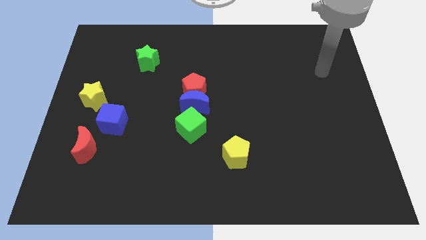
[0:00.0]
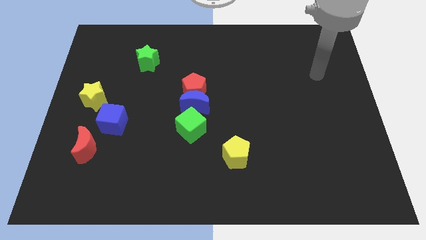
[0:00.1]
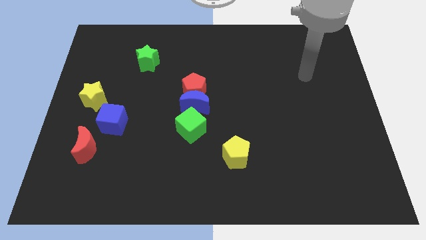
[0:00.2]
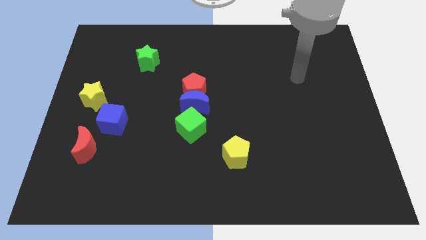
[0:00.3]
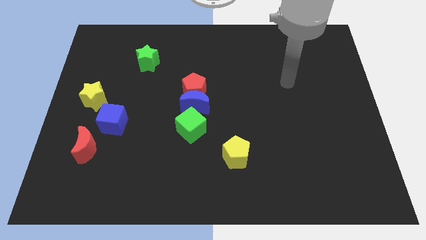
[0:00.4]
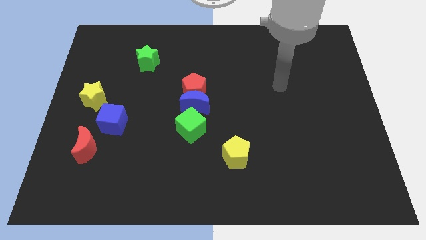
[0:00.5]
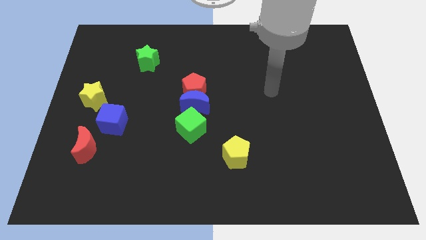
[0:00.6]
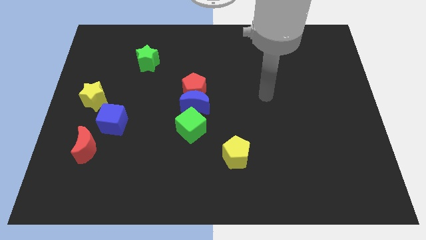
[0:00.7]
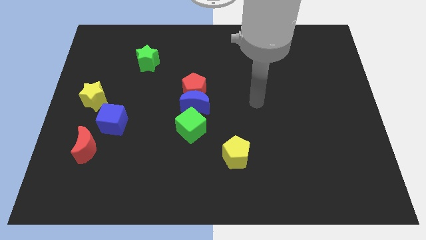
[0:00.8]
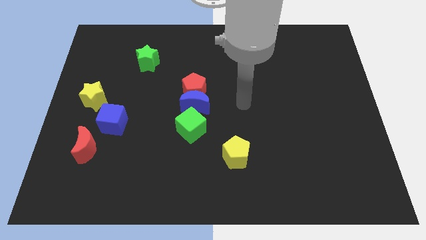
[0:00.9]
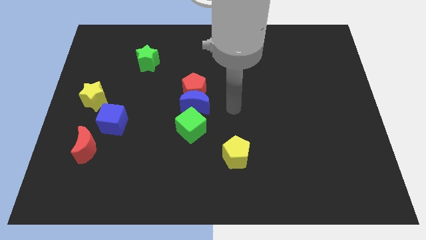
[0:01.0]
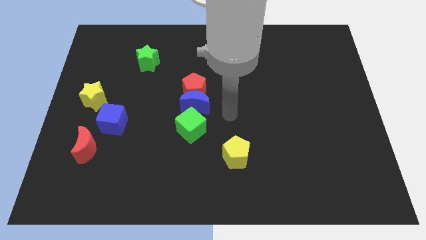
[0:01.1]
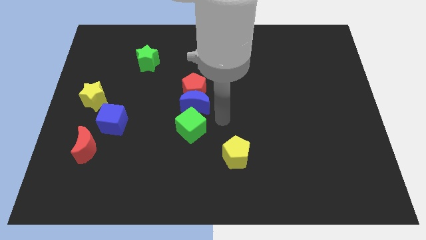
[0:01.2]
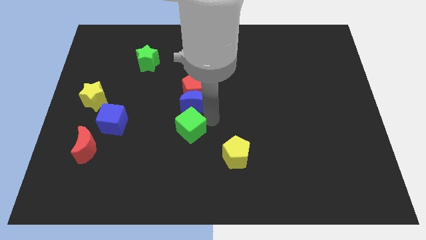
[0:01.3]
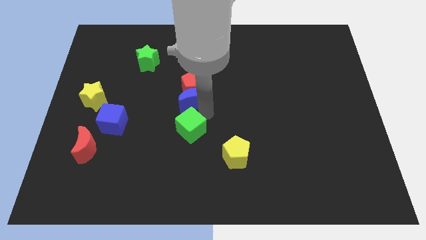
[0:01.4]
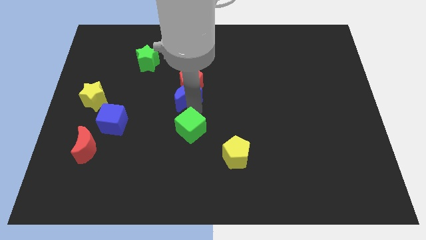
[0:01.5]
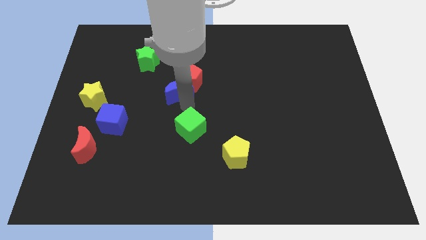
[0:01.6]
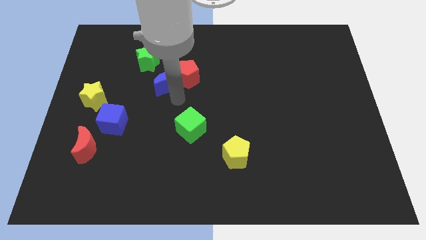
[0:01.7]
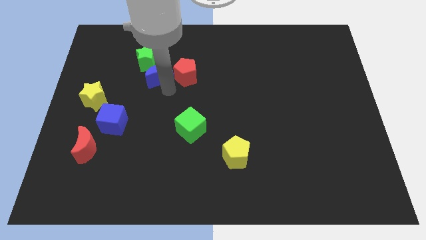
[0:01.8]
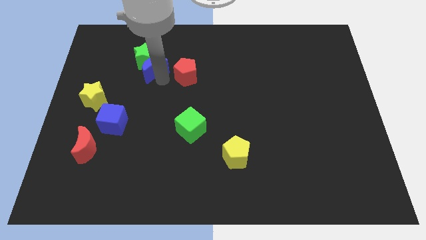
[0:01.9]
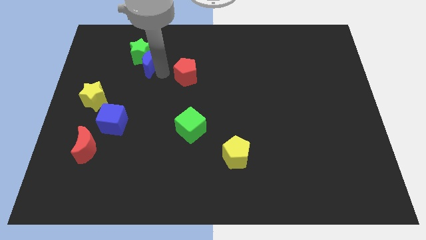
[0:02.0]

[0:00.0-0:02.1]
move the red pentagon away from the blue moon

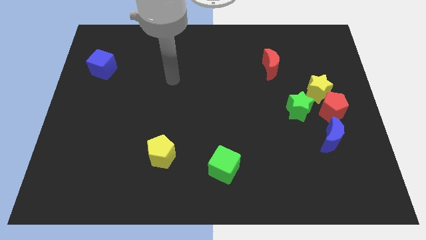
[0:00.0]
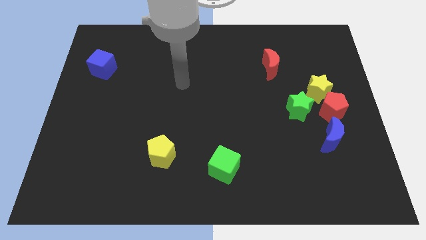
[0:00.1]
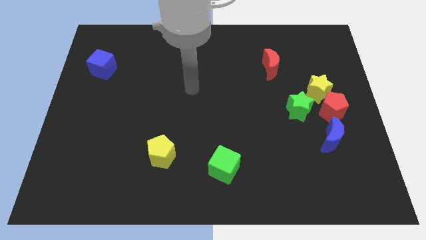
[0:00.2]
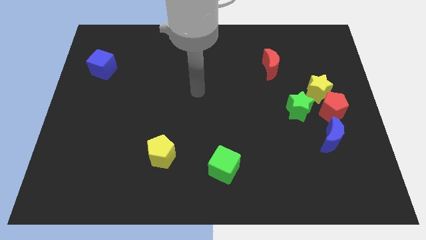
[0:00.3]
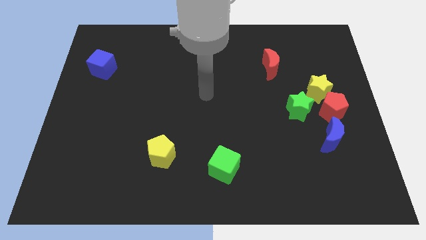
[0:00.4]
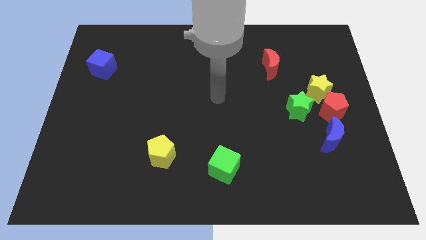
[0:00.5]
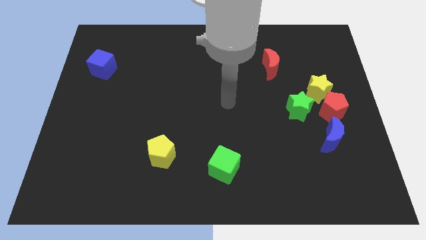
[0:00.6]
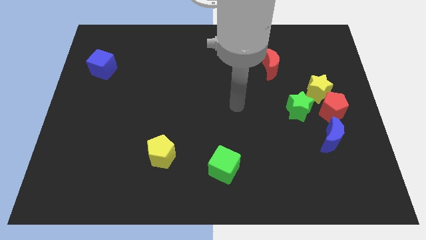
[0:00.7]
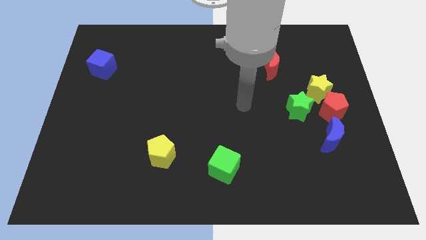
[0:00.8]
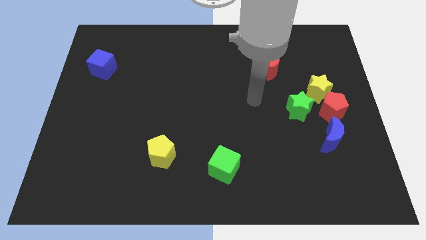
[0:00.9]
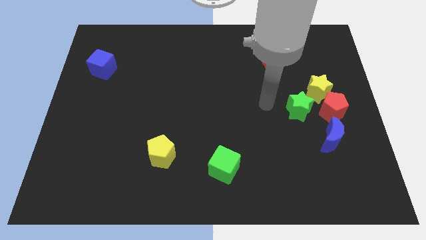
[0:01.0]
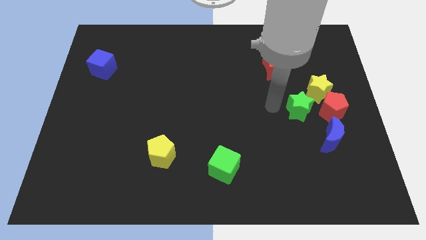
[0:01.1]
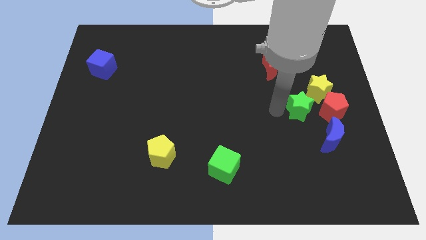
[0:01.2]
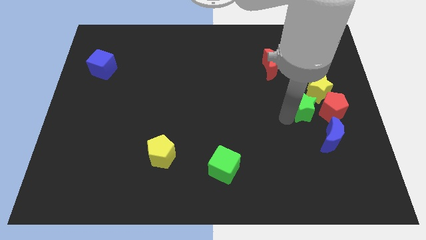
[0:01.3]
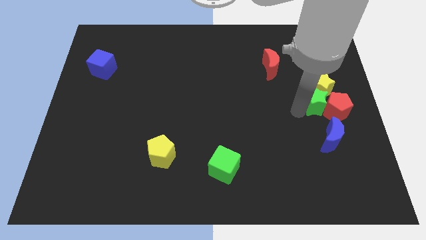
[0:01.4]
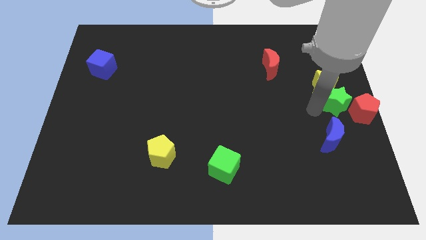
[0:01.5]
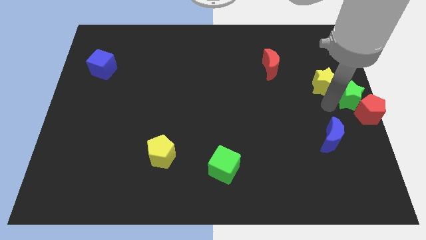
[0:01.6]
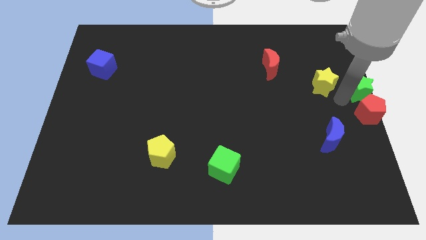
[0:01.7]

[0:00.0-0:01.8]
pull the yellow star apart from the red pentagon and green star

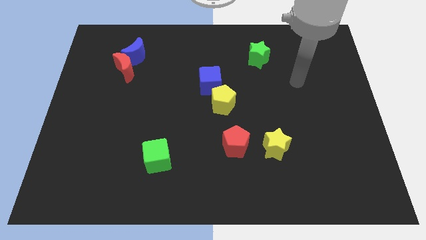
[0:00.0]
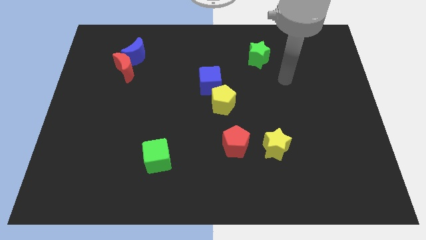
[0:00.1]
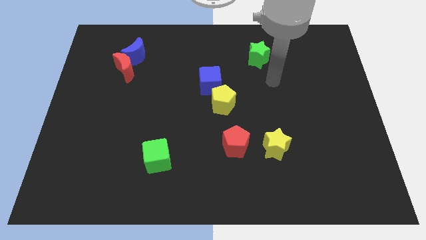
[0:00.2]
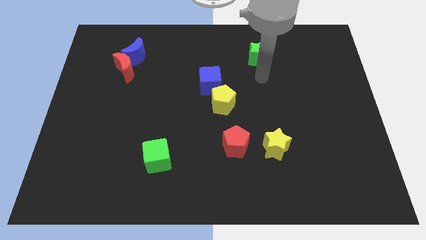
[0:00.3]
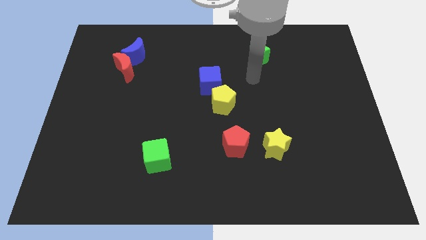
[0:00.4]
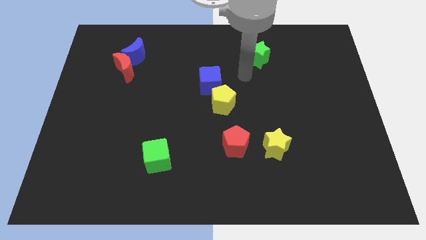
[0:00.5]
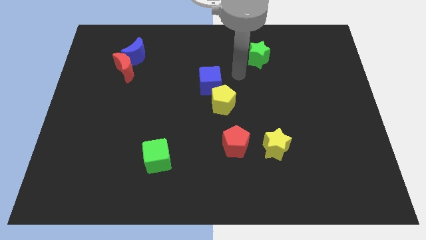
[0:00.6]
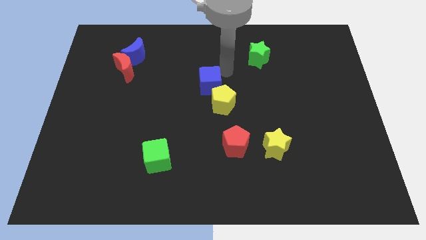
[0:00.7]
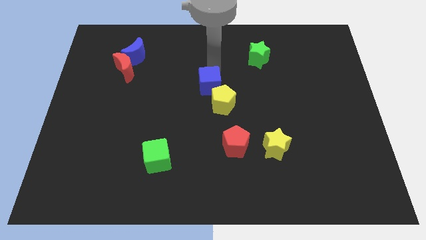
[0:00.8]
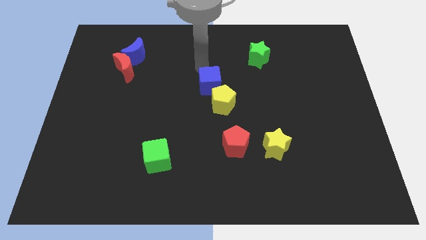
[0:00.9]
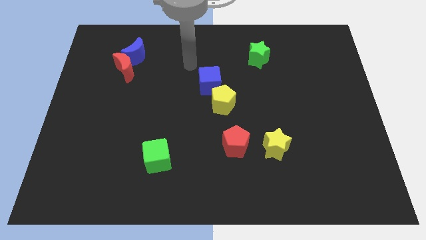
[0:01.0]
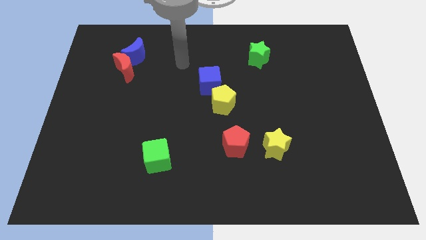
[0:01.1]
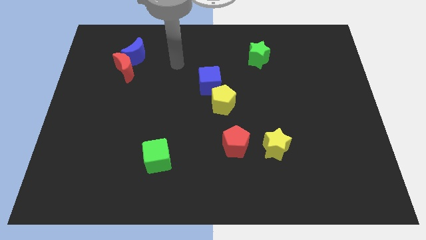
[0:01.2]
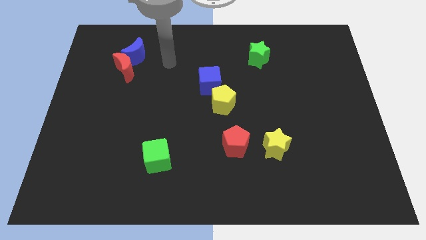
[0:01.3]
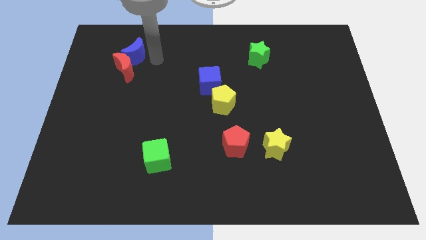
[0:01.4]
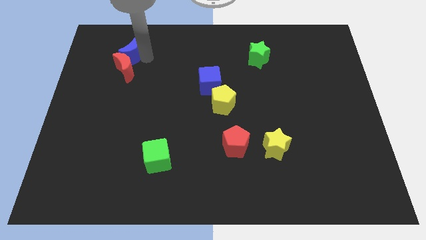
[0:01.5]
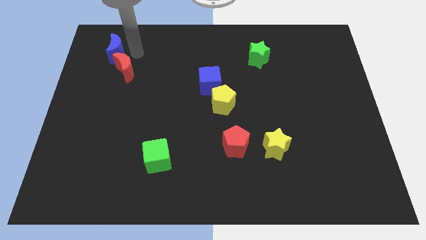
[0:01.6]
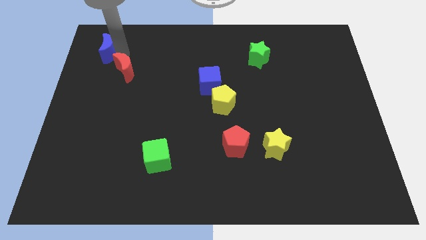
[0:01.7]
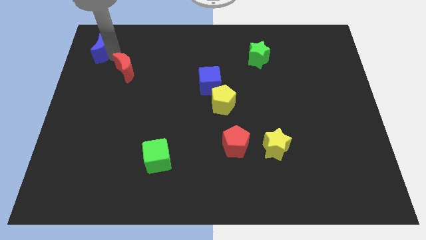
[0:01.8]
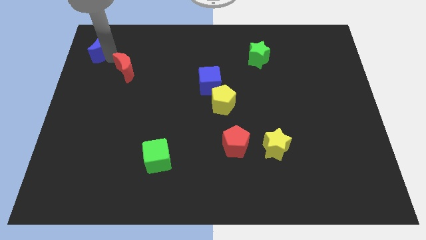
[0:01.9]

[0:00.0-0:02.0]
separate the red moon from the blue moon

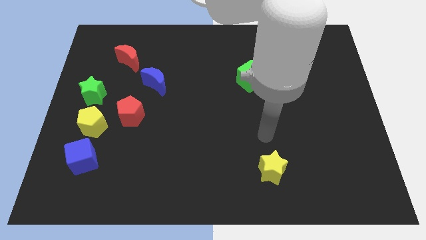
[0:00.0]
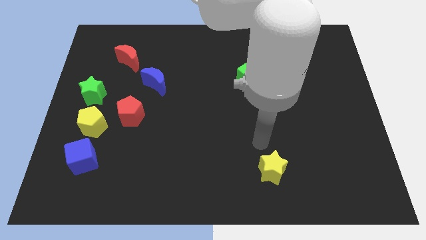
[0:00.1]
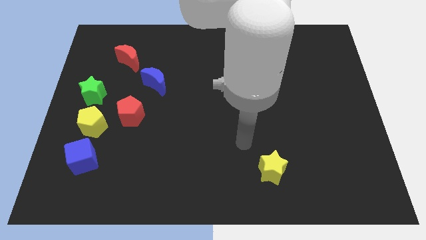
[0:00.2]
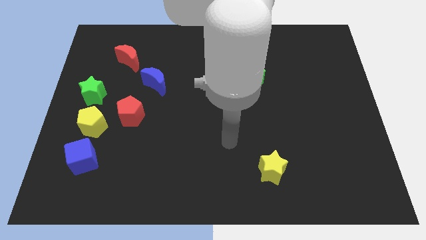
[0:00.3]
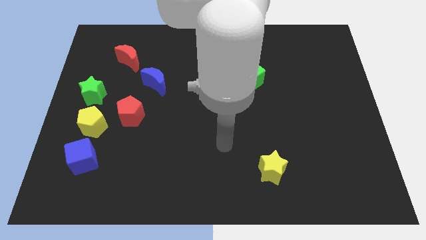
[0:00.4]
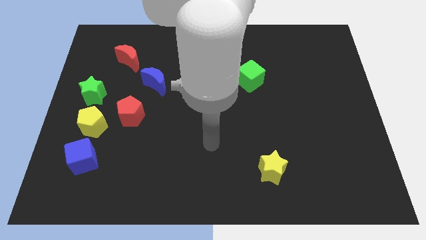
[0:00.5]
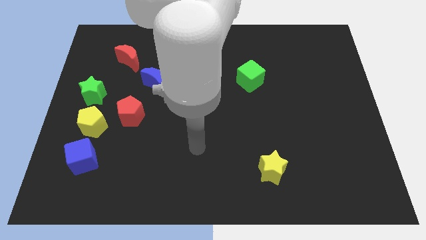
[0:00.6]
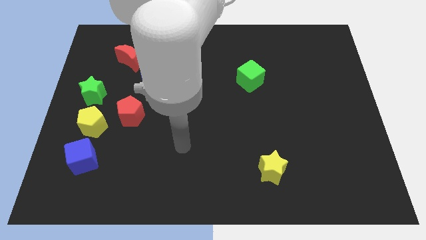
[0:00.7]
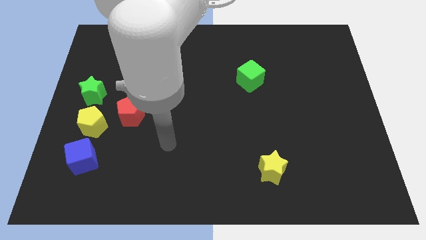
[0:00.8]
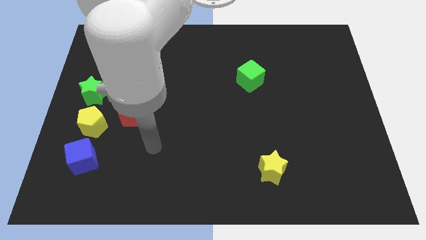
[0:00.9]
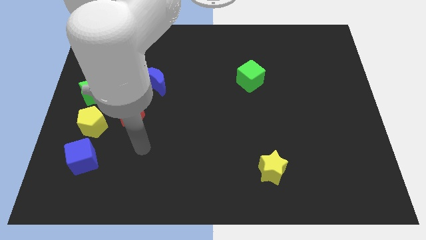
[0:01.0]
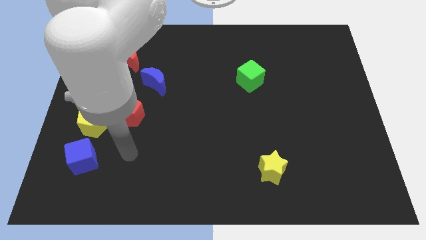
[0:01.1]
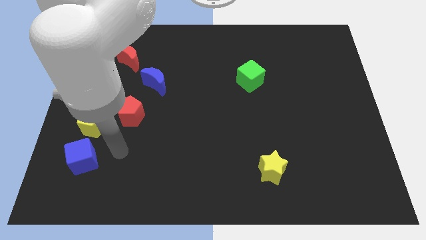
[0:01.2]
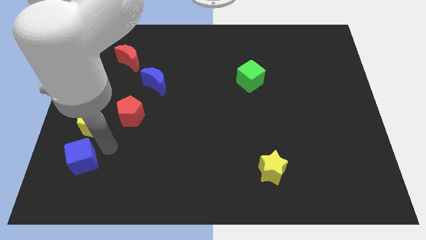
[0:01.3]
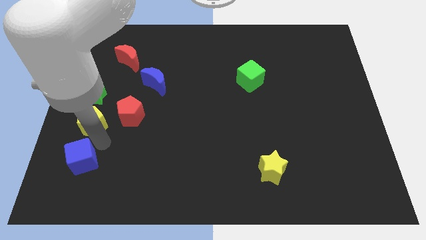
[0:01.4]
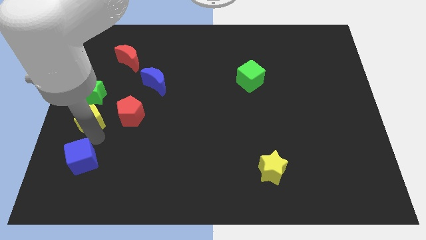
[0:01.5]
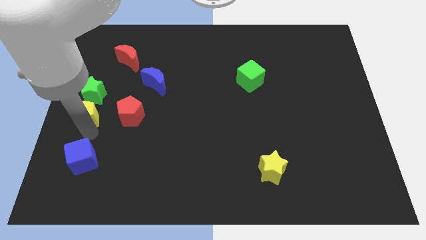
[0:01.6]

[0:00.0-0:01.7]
pull the blue cube apart from the yellow pentagon

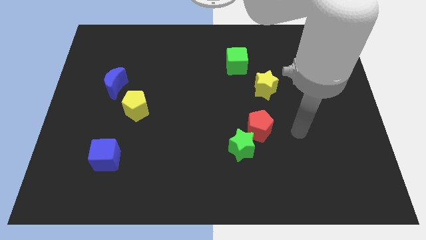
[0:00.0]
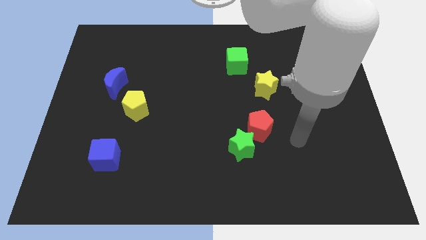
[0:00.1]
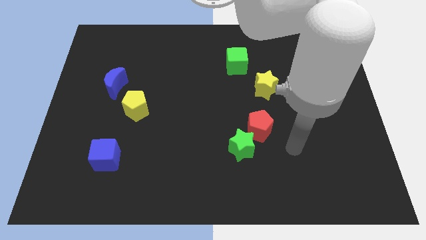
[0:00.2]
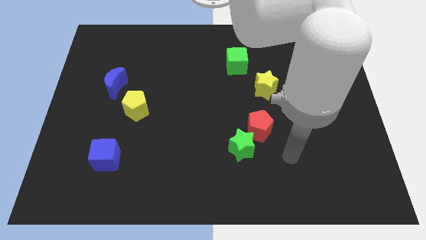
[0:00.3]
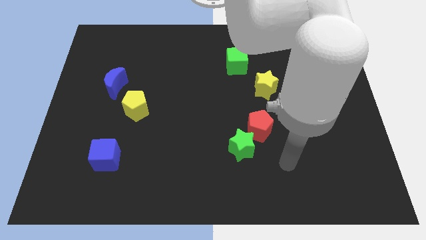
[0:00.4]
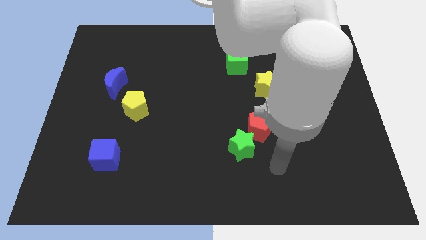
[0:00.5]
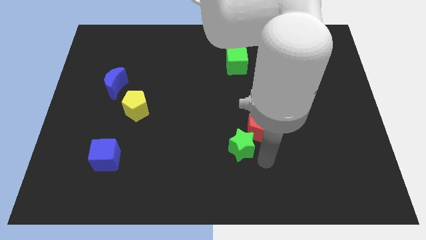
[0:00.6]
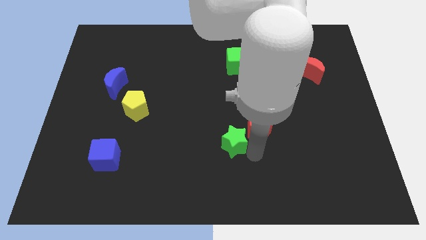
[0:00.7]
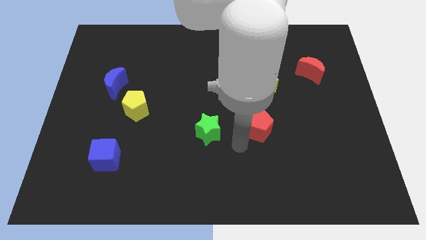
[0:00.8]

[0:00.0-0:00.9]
move the red pentagon away from the green star

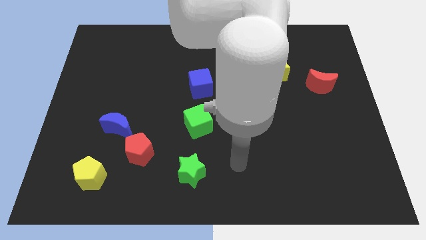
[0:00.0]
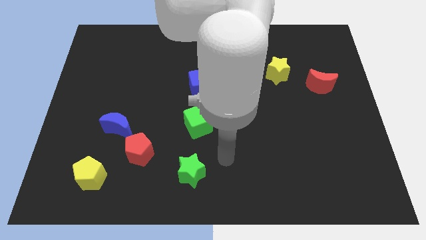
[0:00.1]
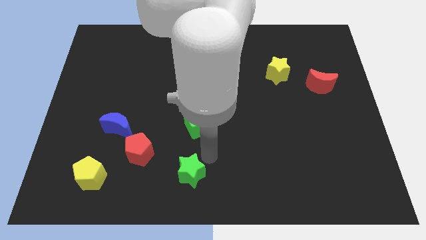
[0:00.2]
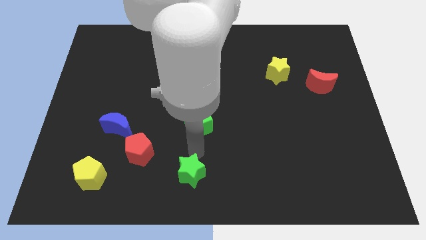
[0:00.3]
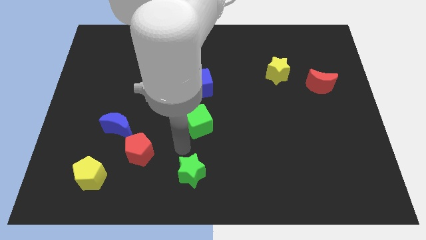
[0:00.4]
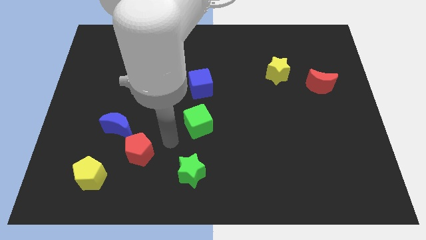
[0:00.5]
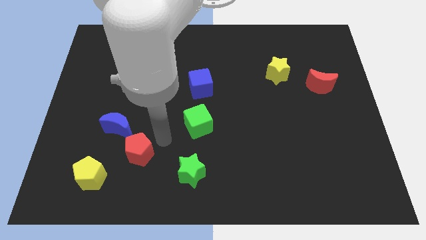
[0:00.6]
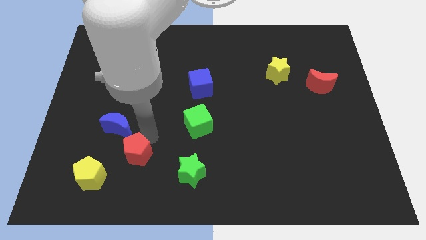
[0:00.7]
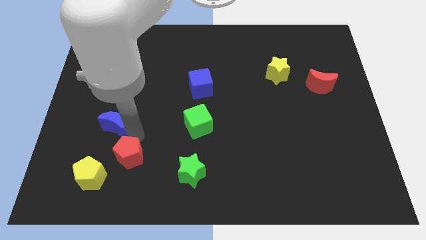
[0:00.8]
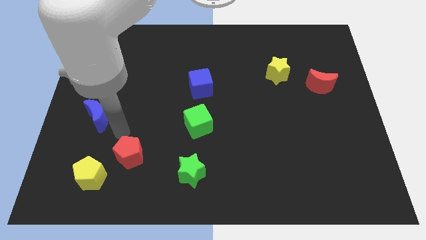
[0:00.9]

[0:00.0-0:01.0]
separate the red pentagon from the blue moon
